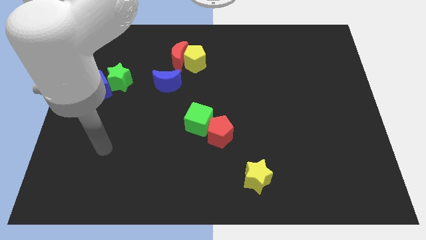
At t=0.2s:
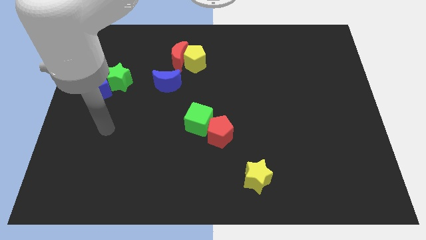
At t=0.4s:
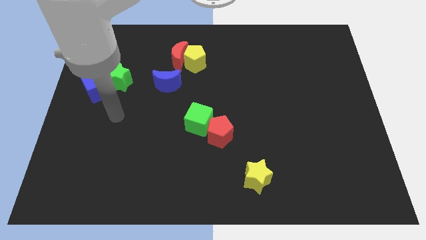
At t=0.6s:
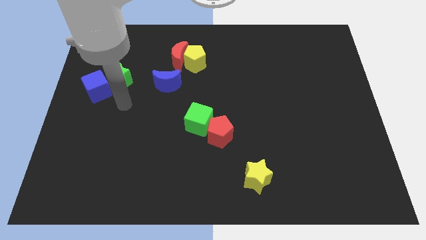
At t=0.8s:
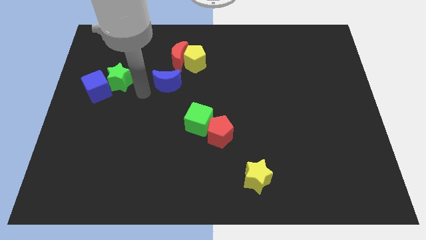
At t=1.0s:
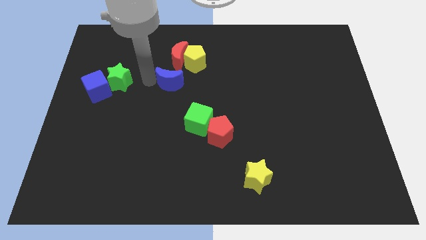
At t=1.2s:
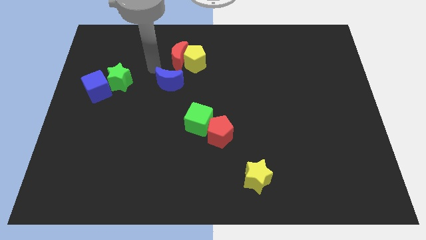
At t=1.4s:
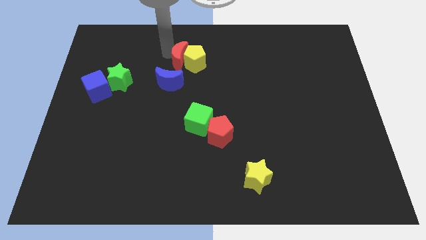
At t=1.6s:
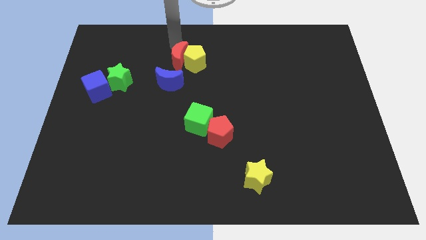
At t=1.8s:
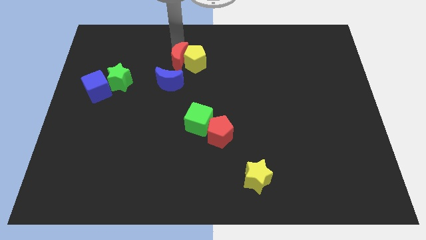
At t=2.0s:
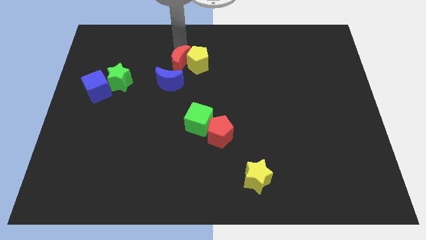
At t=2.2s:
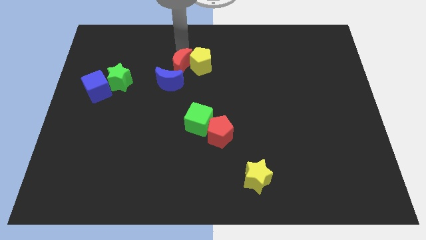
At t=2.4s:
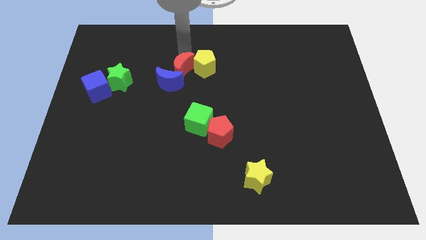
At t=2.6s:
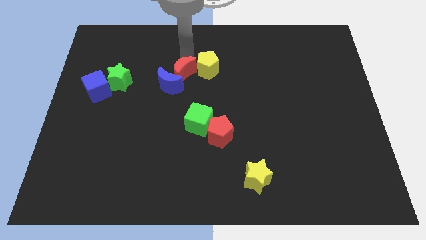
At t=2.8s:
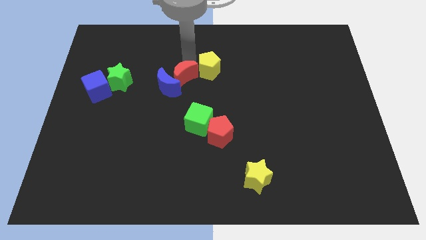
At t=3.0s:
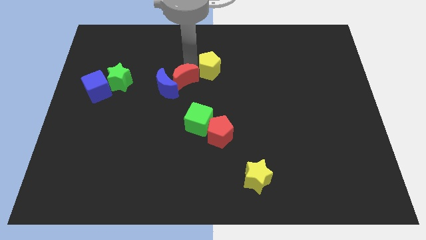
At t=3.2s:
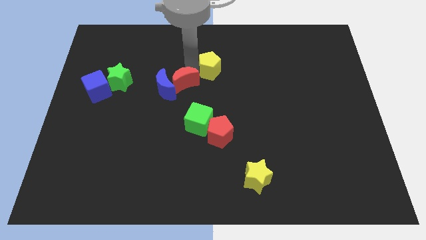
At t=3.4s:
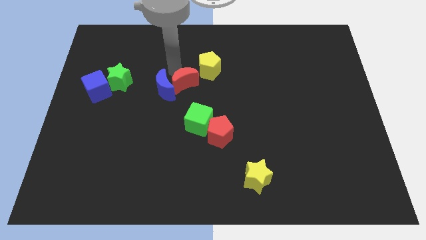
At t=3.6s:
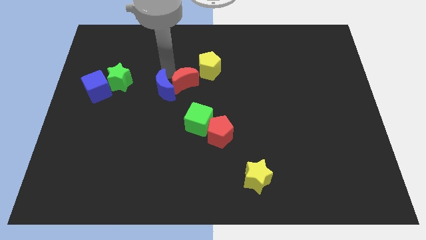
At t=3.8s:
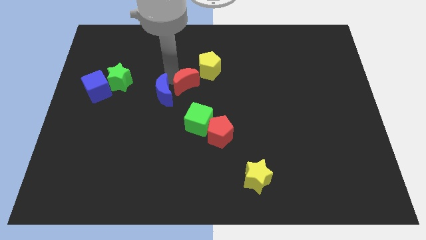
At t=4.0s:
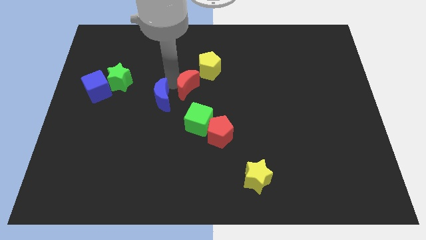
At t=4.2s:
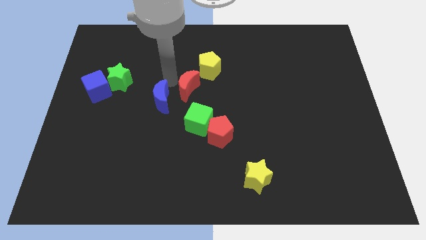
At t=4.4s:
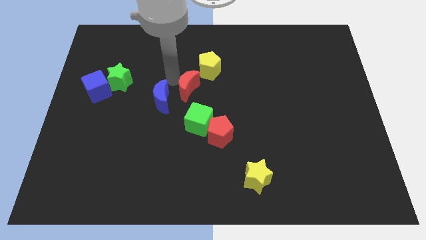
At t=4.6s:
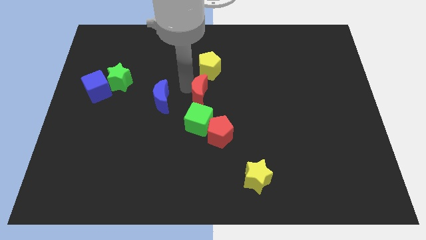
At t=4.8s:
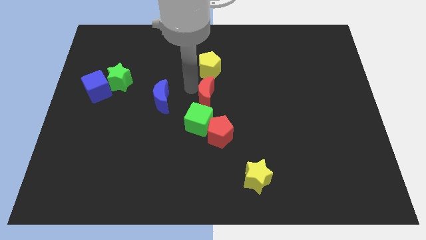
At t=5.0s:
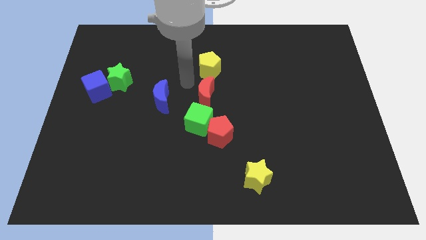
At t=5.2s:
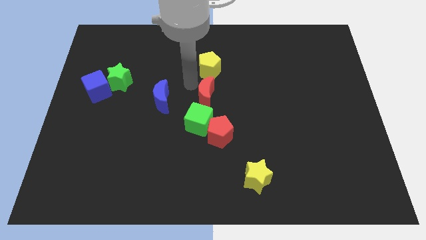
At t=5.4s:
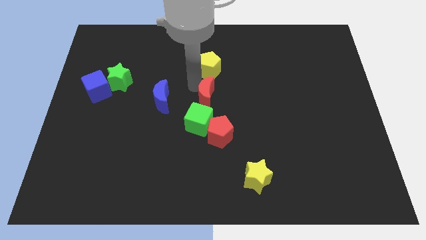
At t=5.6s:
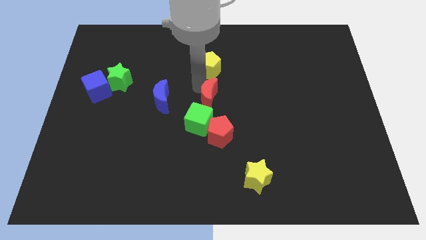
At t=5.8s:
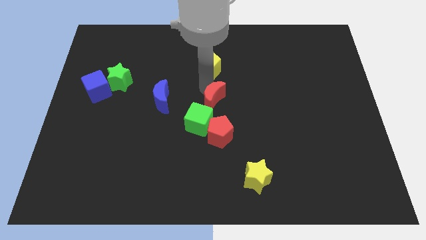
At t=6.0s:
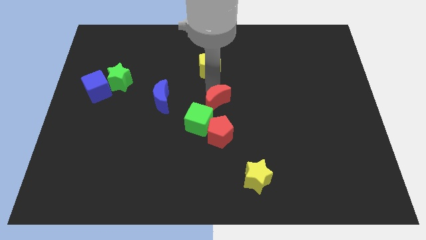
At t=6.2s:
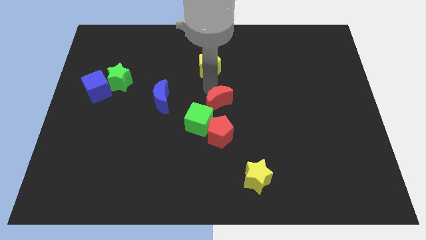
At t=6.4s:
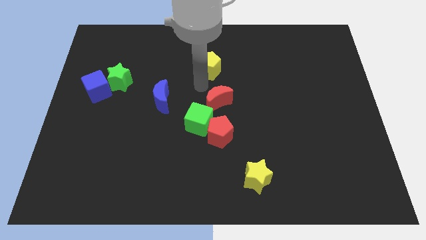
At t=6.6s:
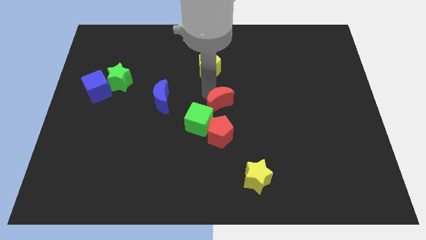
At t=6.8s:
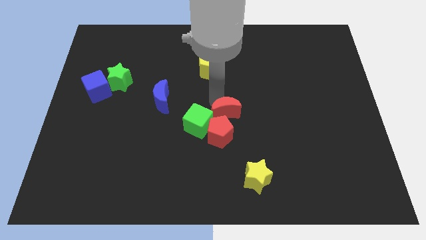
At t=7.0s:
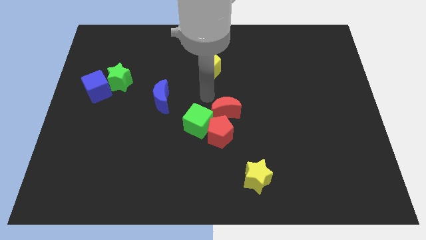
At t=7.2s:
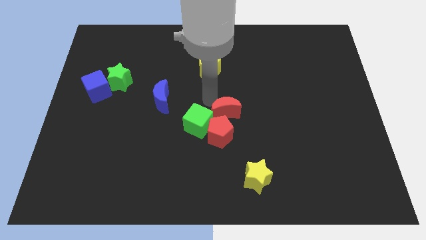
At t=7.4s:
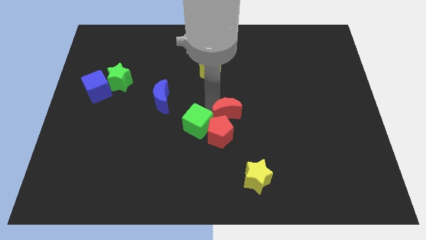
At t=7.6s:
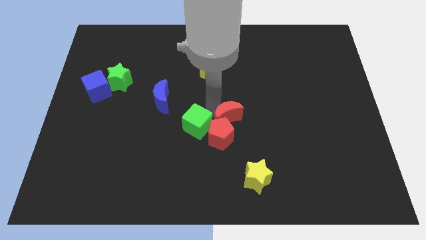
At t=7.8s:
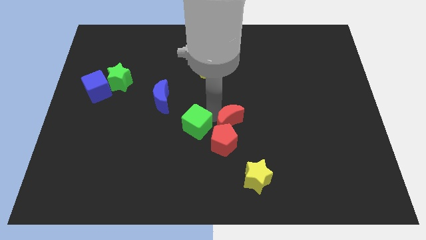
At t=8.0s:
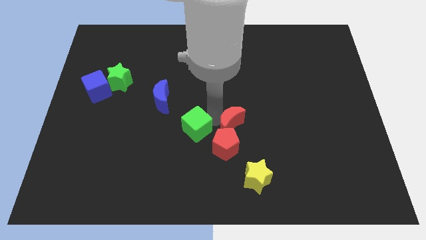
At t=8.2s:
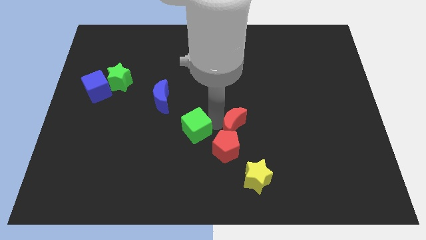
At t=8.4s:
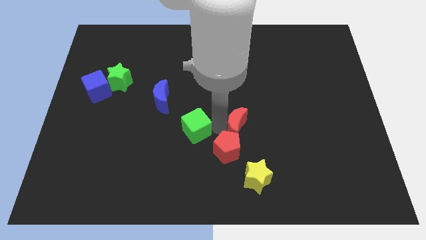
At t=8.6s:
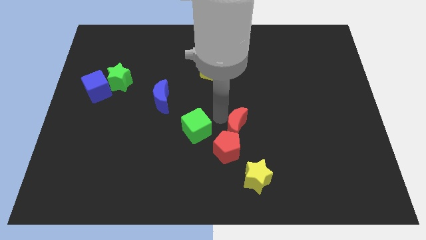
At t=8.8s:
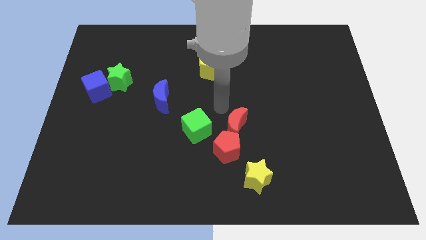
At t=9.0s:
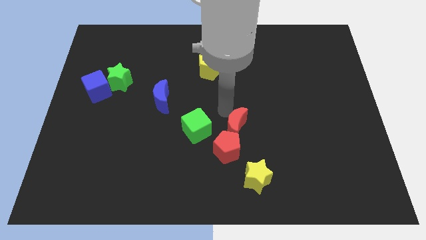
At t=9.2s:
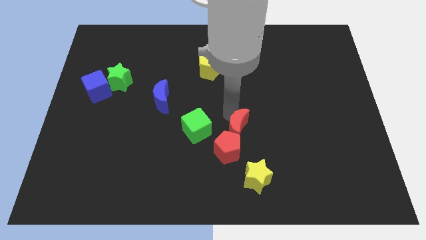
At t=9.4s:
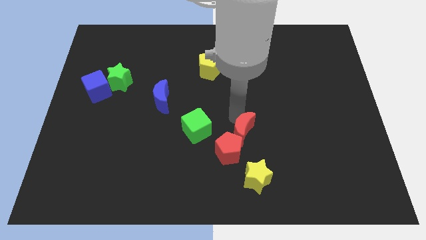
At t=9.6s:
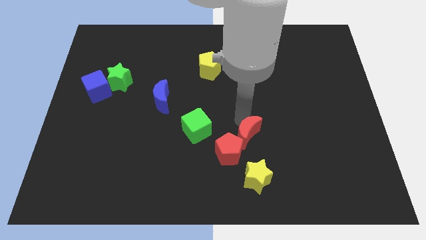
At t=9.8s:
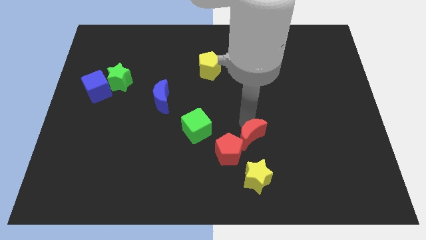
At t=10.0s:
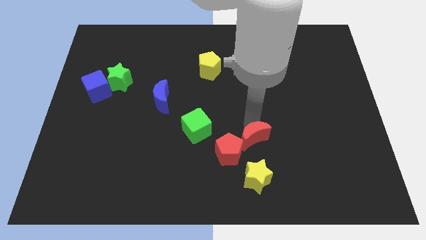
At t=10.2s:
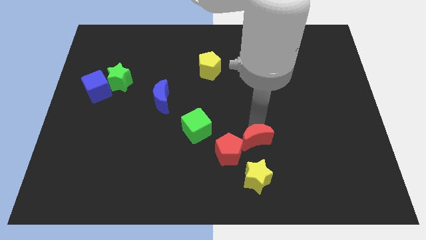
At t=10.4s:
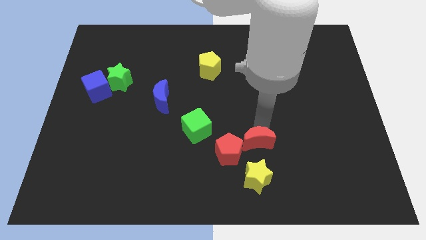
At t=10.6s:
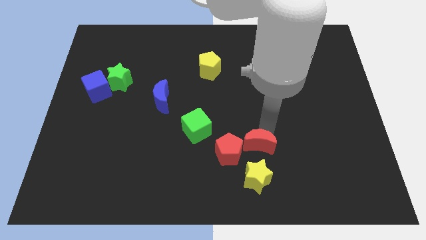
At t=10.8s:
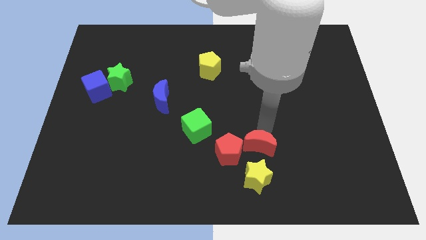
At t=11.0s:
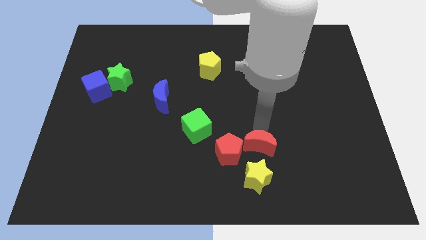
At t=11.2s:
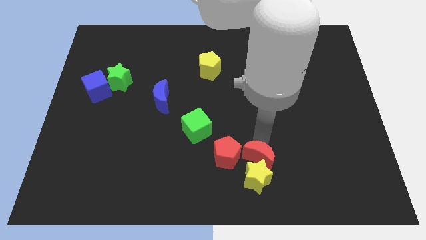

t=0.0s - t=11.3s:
put the red moon to the yellow star

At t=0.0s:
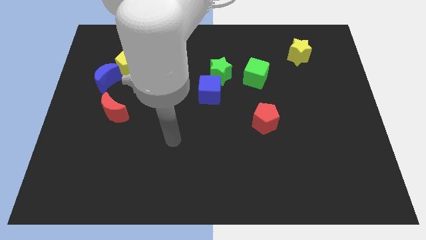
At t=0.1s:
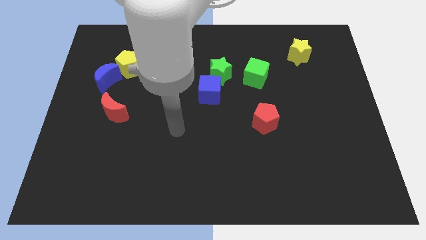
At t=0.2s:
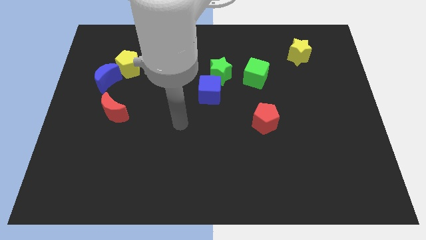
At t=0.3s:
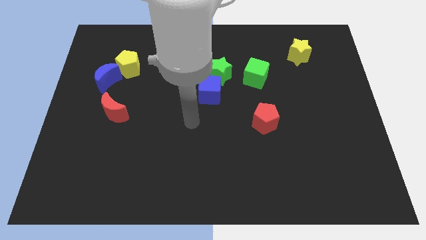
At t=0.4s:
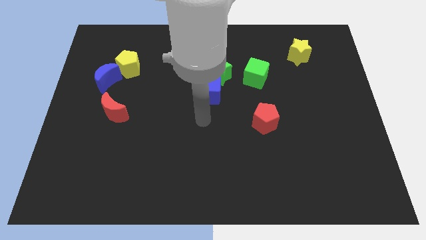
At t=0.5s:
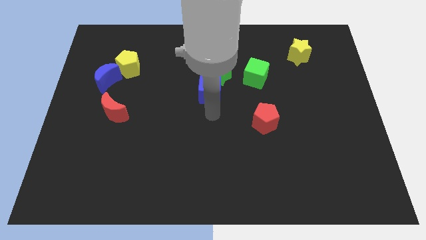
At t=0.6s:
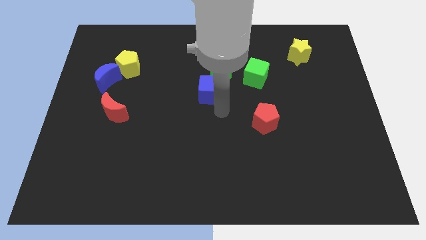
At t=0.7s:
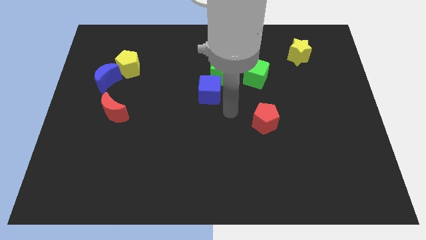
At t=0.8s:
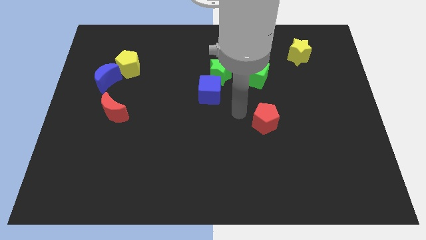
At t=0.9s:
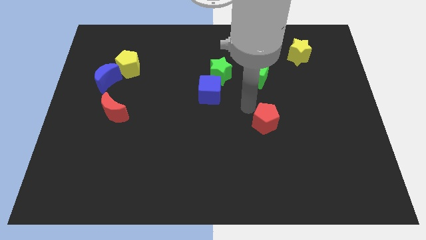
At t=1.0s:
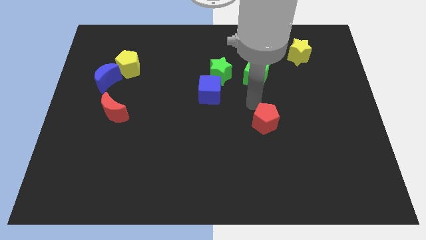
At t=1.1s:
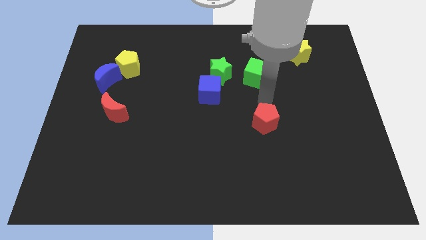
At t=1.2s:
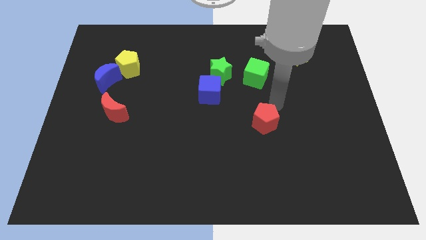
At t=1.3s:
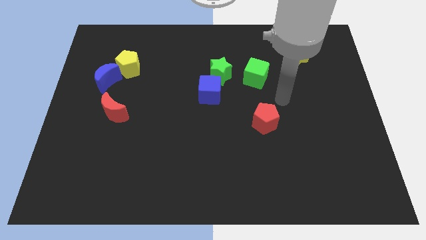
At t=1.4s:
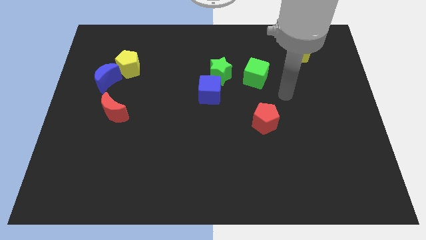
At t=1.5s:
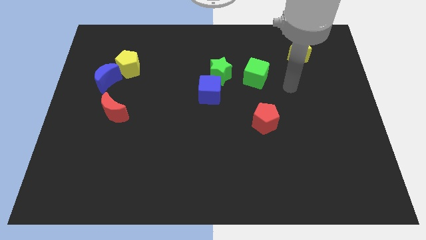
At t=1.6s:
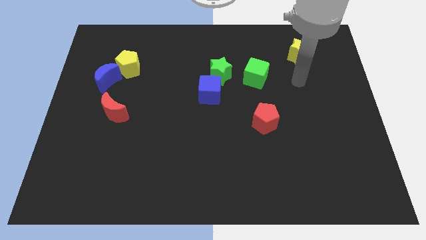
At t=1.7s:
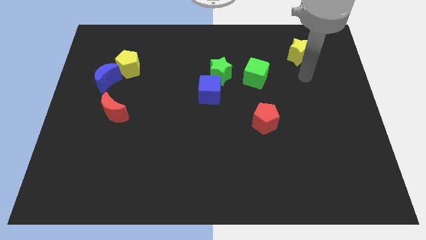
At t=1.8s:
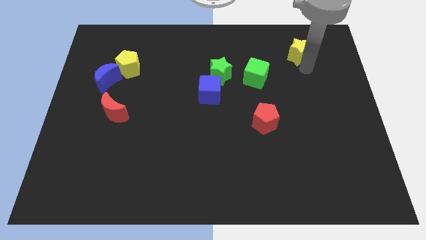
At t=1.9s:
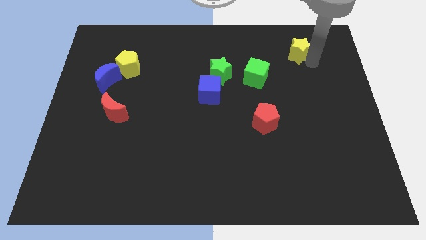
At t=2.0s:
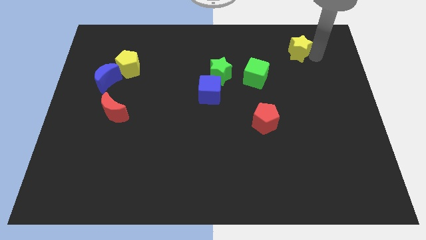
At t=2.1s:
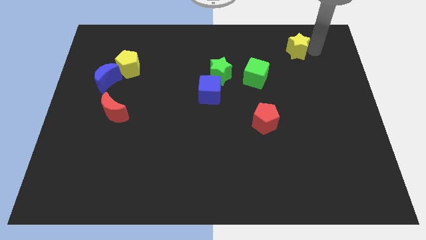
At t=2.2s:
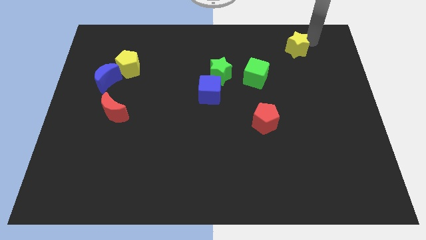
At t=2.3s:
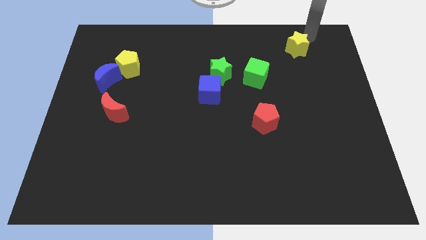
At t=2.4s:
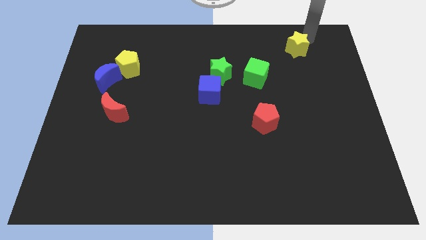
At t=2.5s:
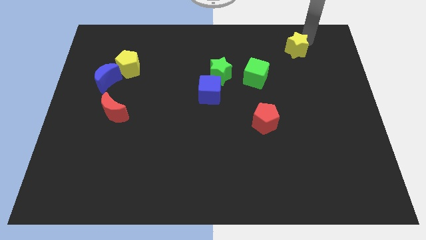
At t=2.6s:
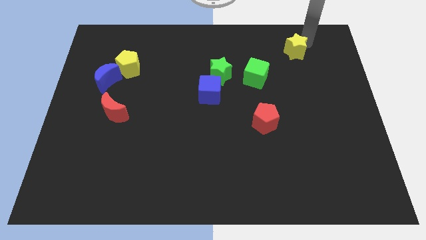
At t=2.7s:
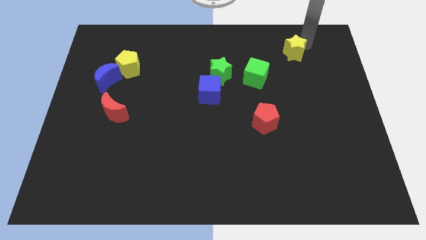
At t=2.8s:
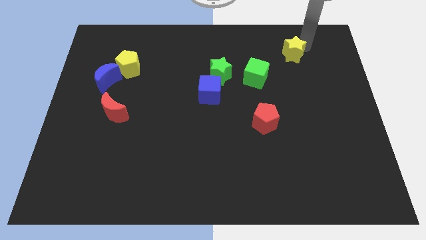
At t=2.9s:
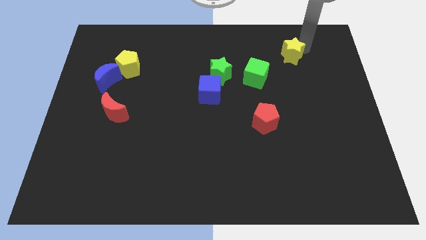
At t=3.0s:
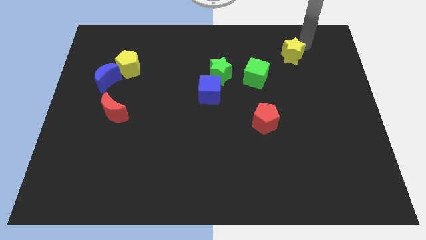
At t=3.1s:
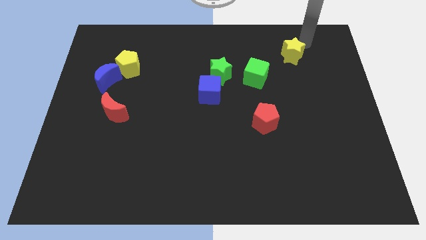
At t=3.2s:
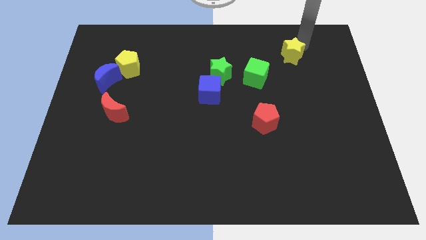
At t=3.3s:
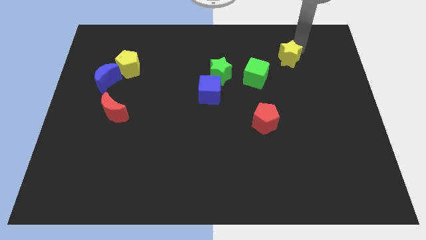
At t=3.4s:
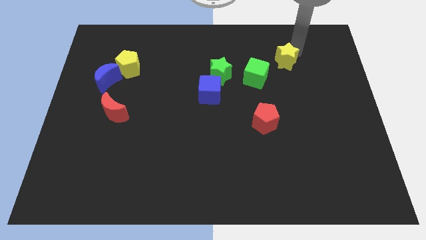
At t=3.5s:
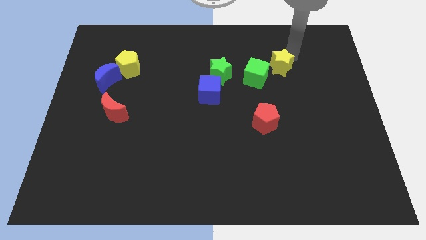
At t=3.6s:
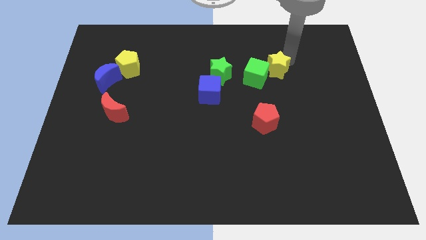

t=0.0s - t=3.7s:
put the yellow star to the green cube
